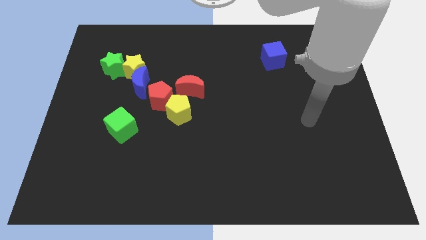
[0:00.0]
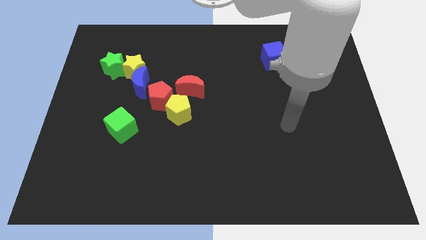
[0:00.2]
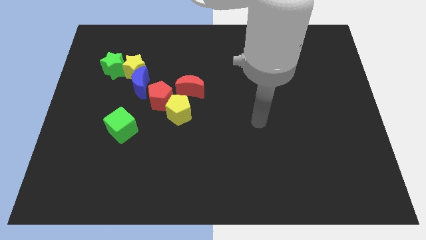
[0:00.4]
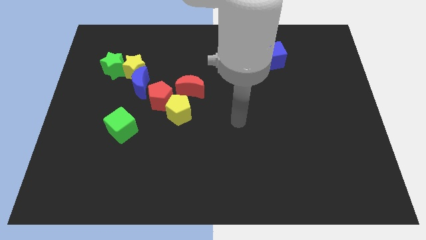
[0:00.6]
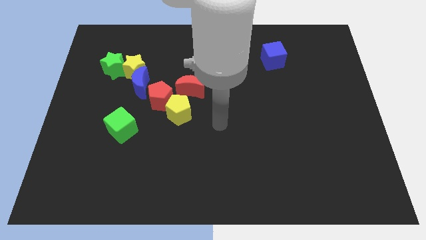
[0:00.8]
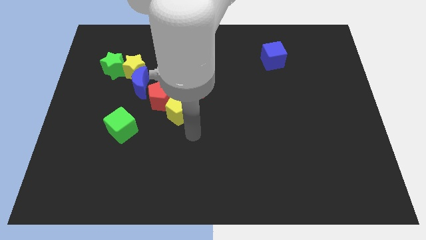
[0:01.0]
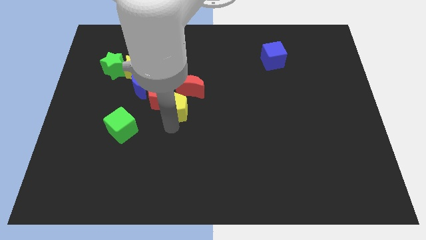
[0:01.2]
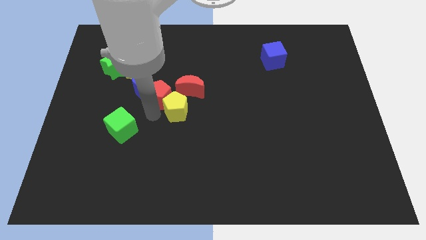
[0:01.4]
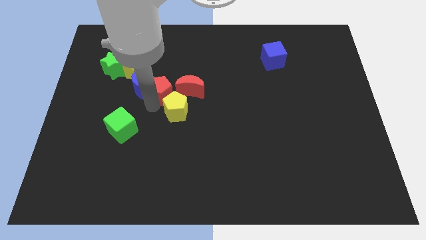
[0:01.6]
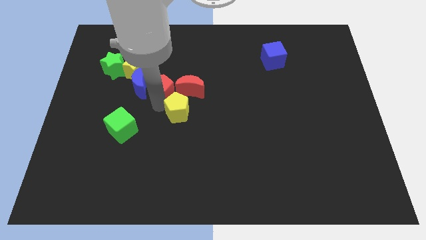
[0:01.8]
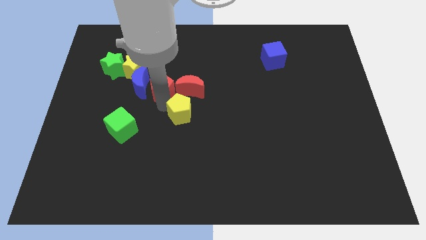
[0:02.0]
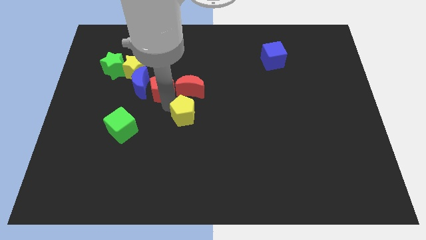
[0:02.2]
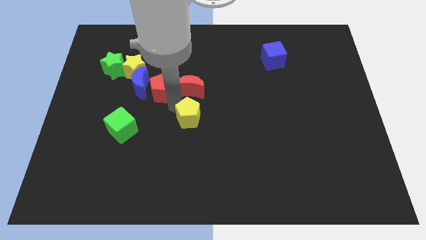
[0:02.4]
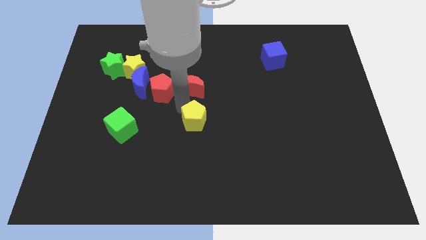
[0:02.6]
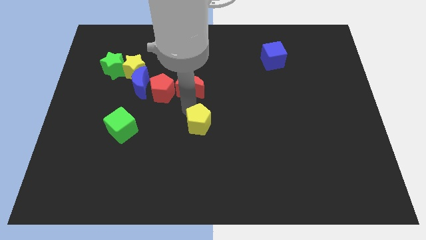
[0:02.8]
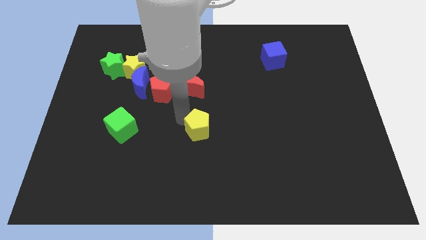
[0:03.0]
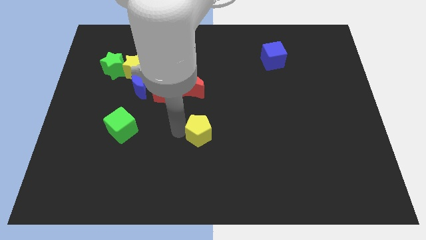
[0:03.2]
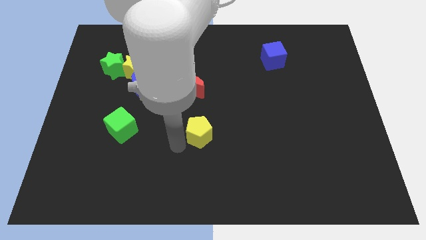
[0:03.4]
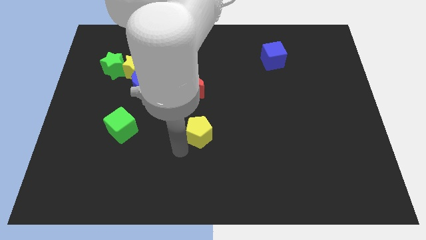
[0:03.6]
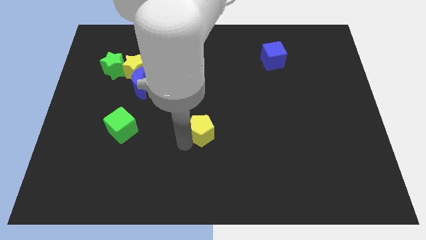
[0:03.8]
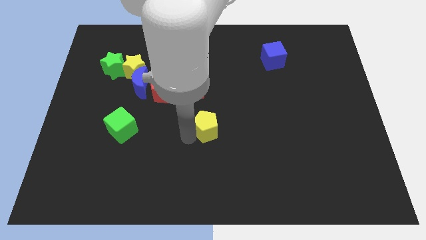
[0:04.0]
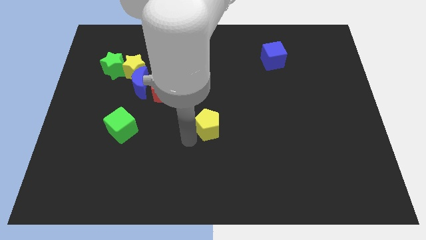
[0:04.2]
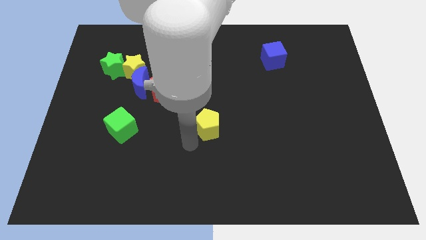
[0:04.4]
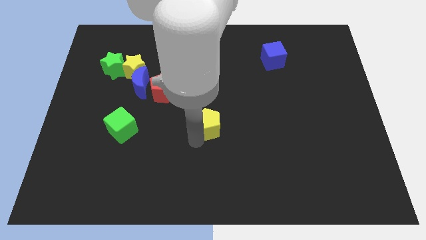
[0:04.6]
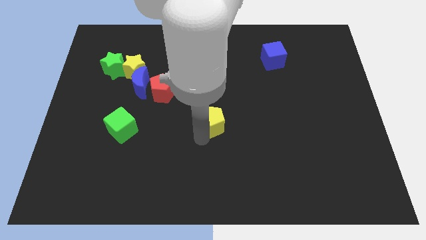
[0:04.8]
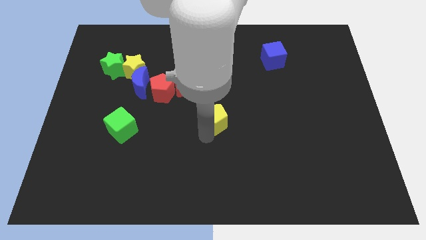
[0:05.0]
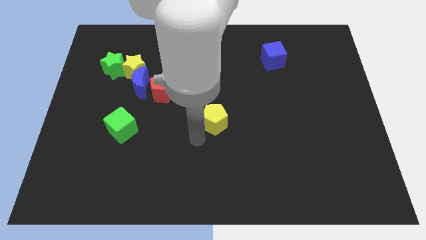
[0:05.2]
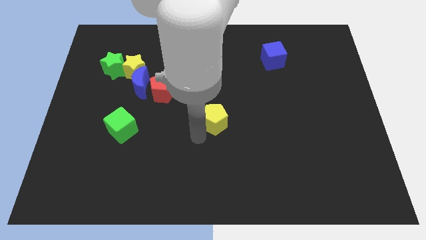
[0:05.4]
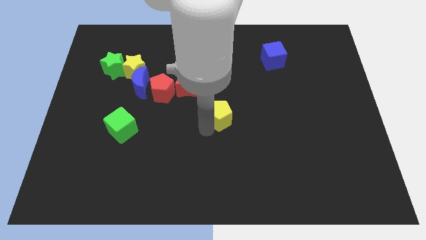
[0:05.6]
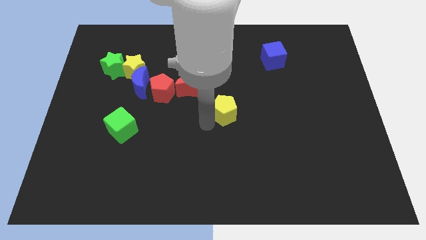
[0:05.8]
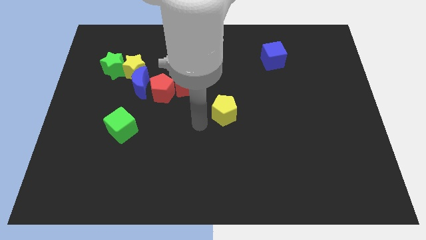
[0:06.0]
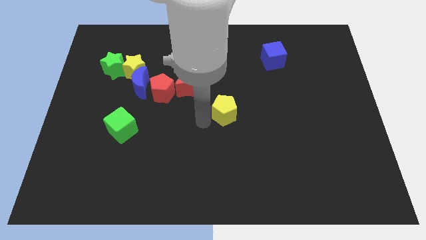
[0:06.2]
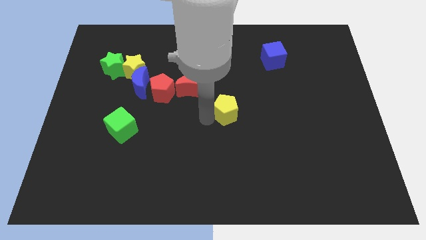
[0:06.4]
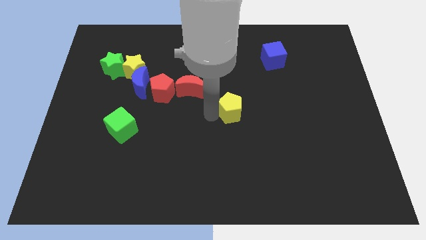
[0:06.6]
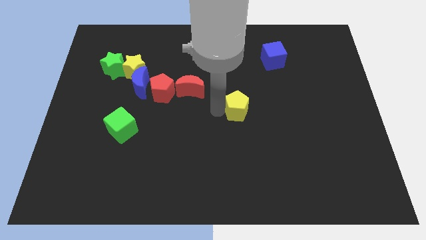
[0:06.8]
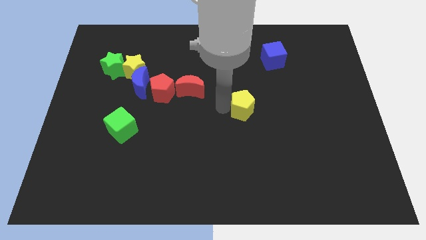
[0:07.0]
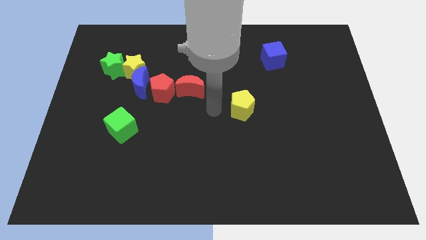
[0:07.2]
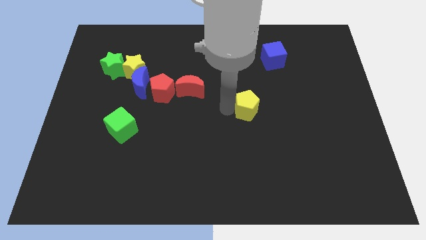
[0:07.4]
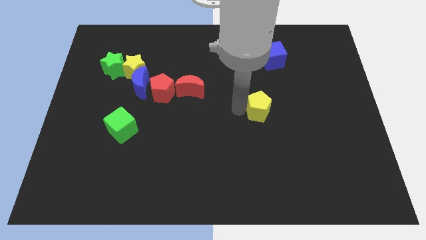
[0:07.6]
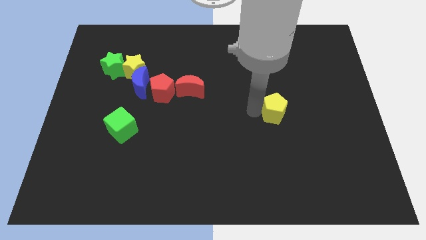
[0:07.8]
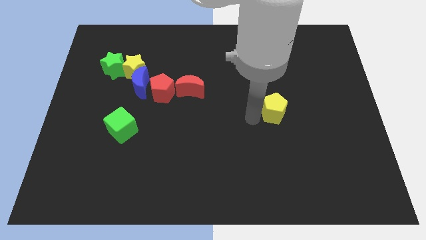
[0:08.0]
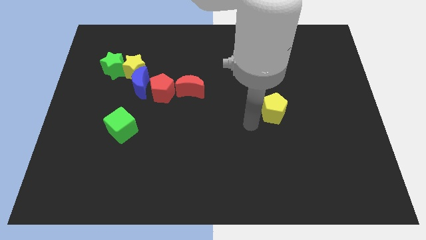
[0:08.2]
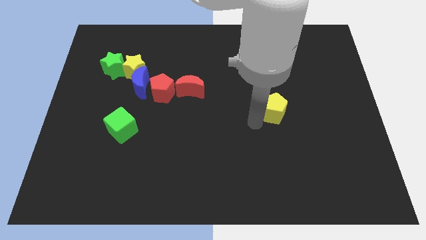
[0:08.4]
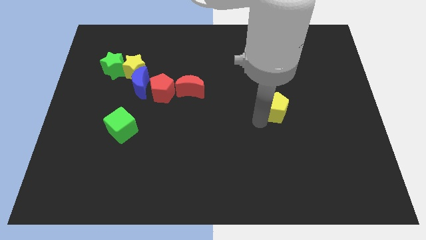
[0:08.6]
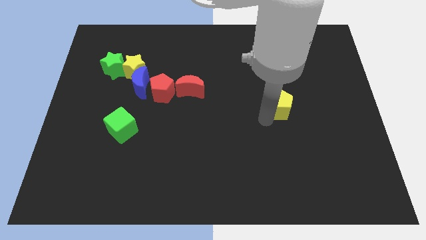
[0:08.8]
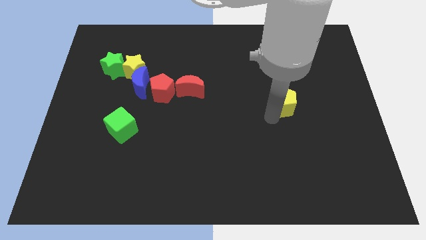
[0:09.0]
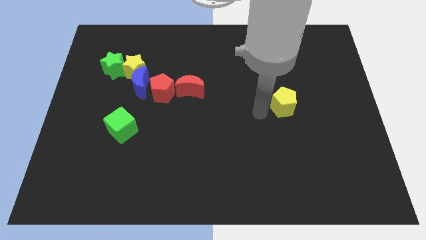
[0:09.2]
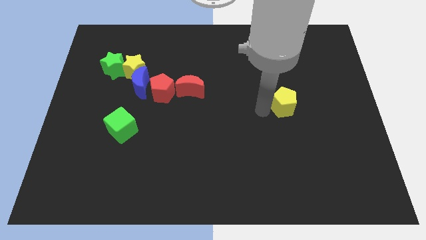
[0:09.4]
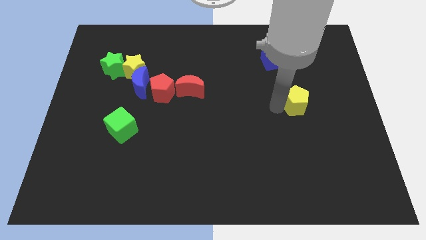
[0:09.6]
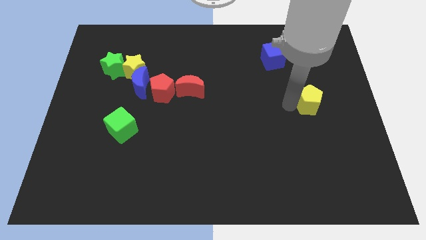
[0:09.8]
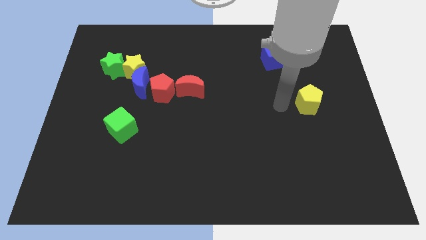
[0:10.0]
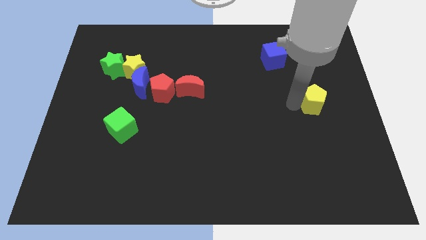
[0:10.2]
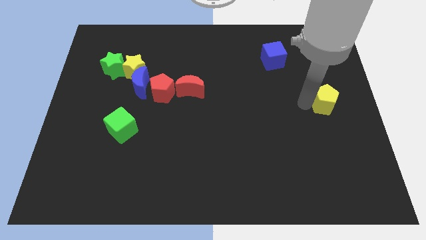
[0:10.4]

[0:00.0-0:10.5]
put the yellow pentagon to the right side of the board
